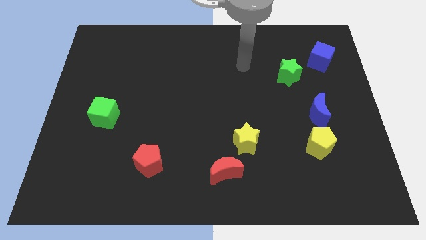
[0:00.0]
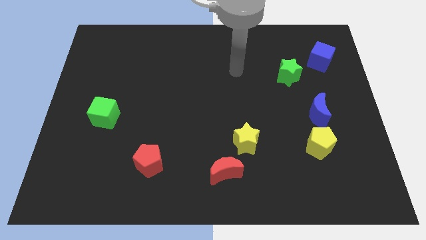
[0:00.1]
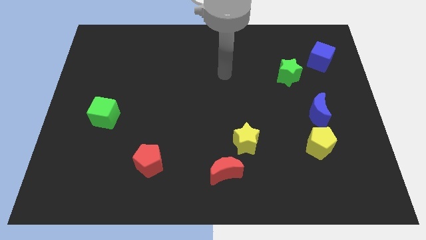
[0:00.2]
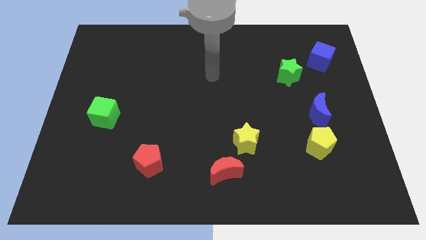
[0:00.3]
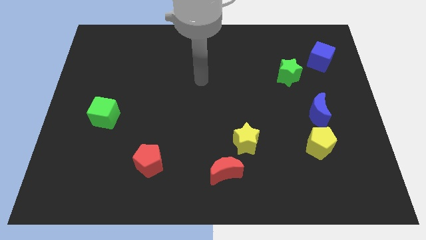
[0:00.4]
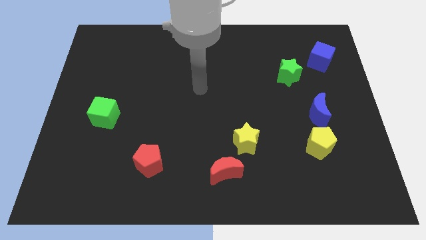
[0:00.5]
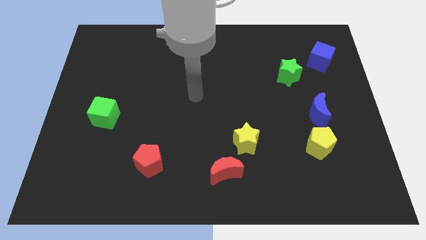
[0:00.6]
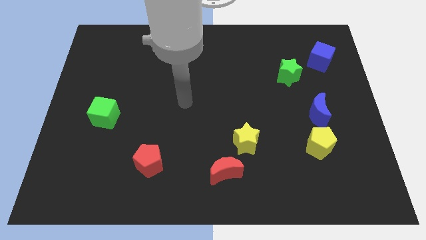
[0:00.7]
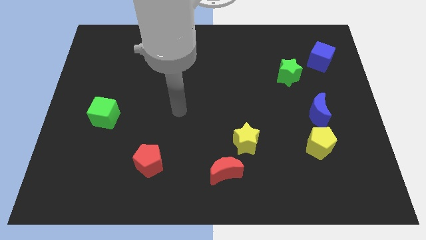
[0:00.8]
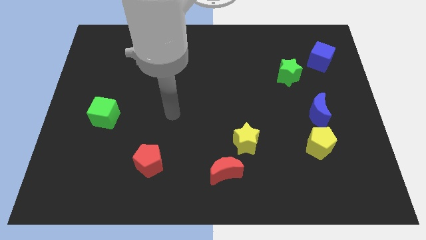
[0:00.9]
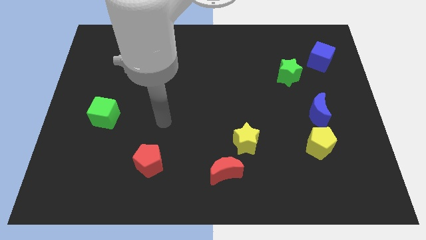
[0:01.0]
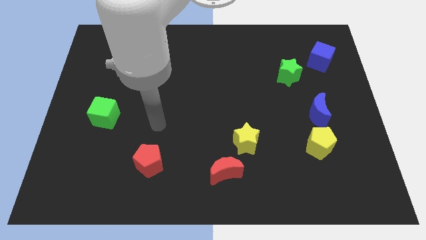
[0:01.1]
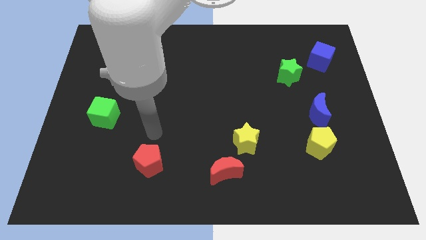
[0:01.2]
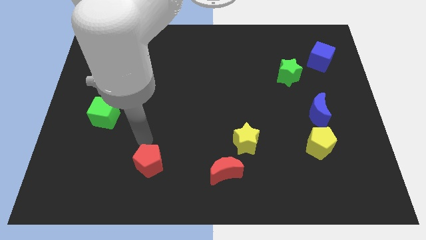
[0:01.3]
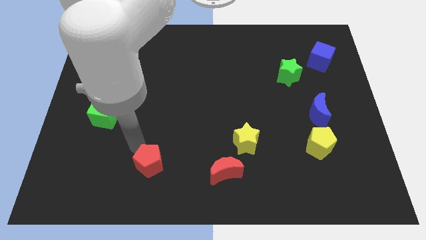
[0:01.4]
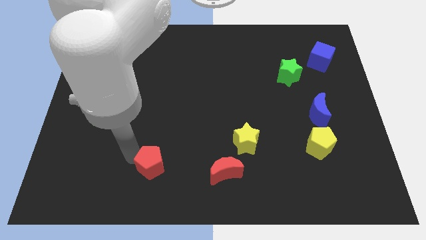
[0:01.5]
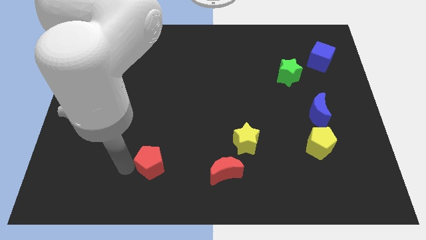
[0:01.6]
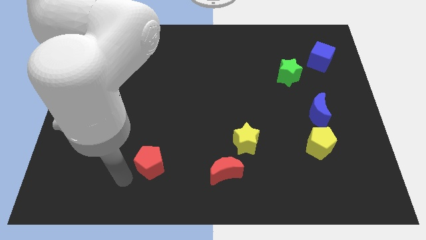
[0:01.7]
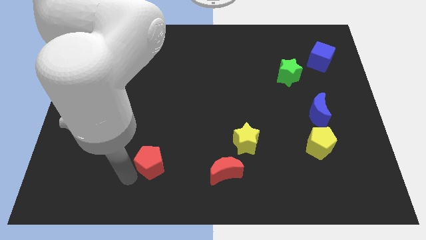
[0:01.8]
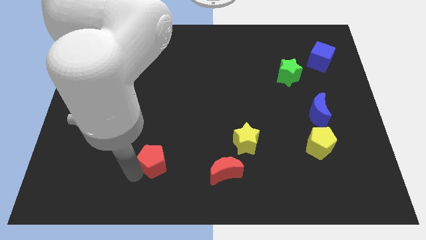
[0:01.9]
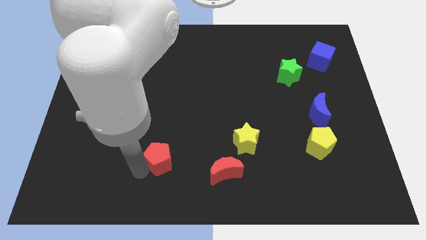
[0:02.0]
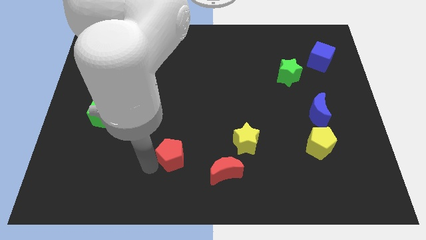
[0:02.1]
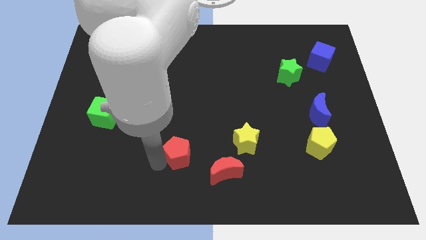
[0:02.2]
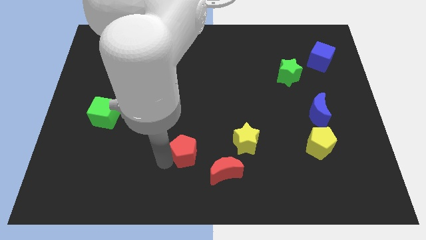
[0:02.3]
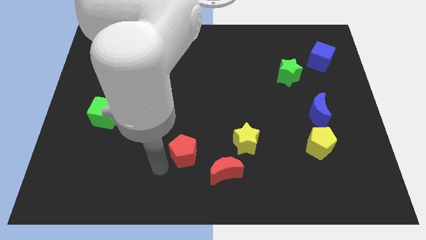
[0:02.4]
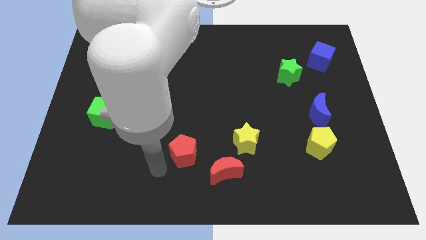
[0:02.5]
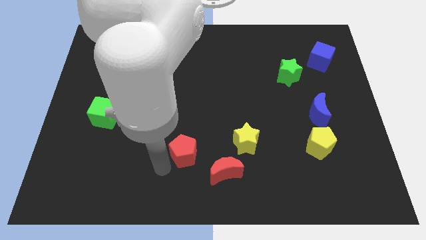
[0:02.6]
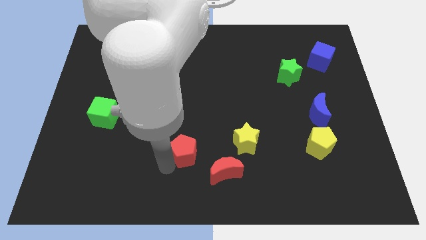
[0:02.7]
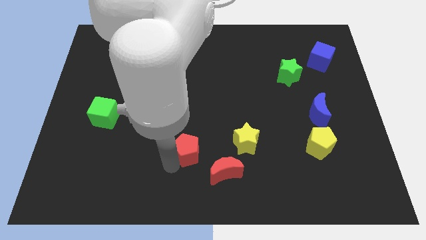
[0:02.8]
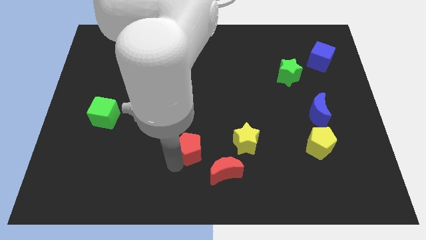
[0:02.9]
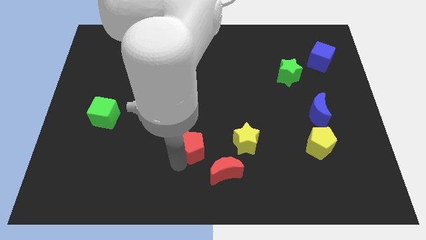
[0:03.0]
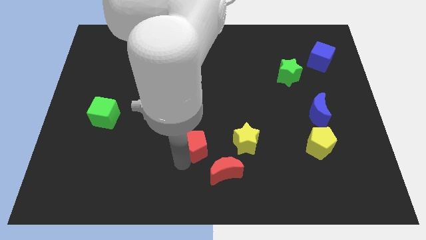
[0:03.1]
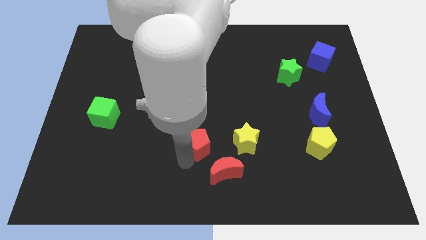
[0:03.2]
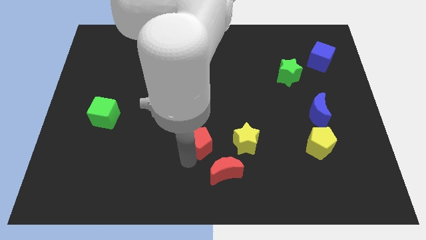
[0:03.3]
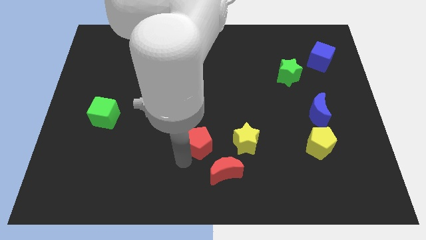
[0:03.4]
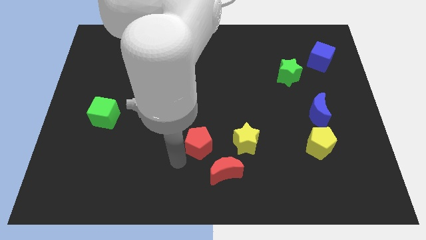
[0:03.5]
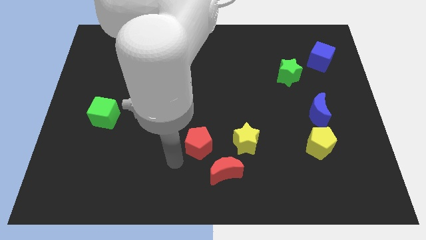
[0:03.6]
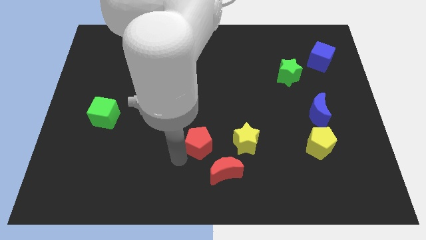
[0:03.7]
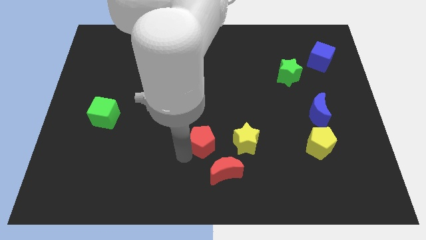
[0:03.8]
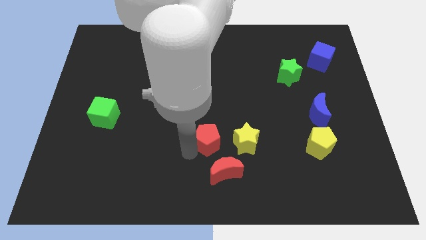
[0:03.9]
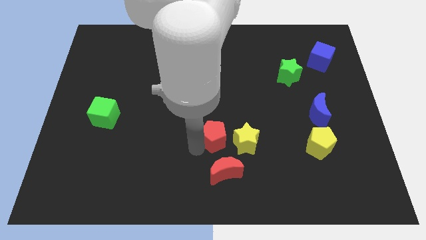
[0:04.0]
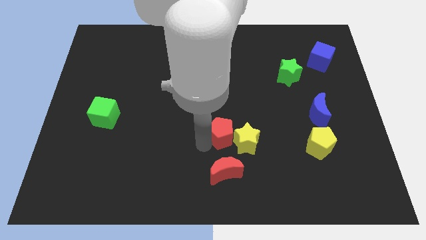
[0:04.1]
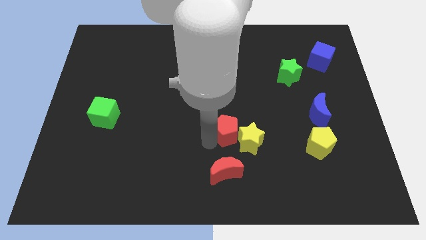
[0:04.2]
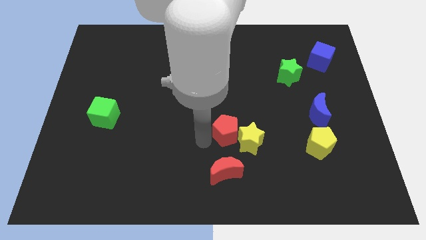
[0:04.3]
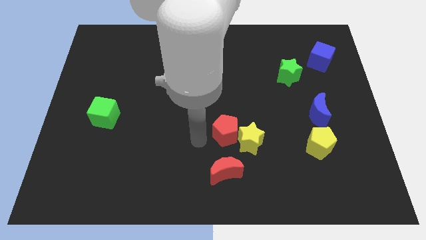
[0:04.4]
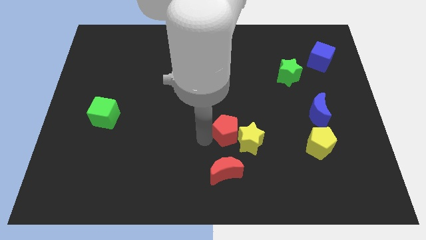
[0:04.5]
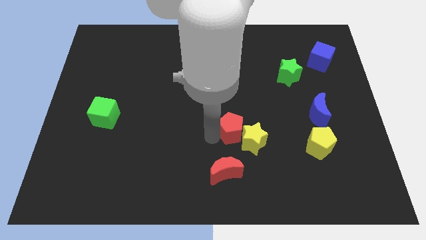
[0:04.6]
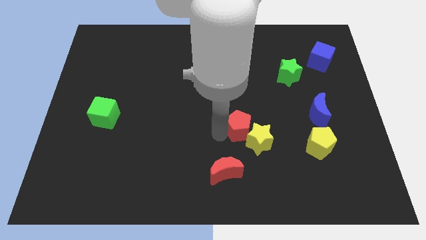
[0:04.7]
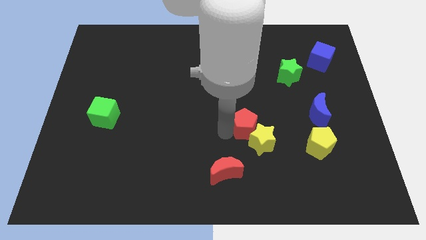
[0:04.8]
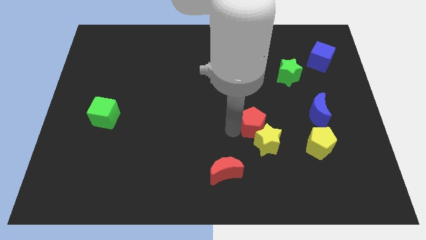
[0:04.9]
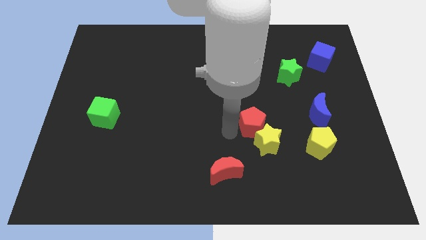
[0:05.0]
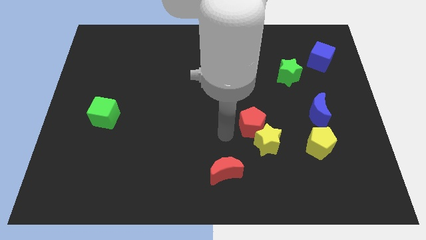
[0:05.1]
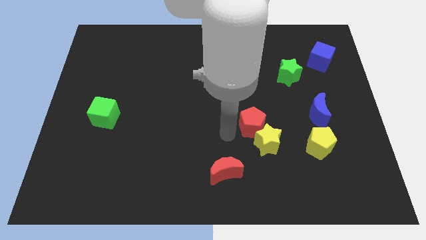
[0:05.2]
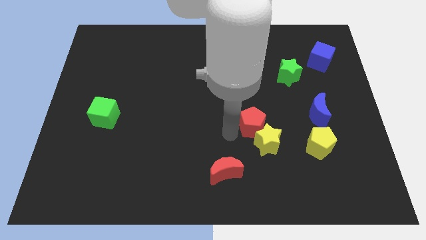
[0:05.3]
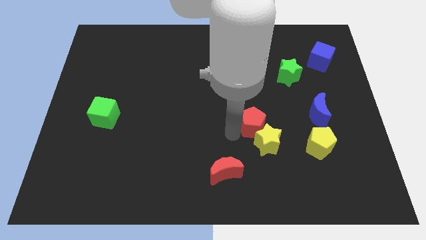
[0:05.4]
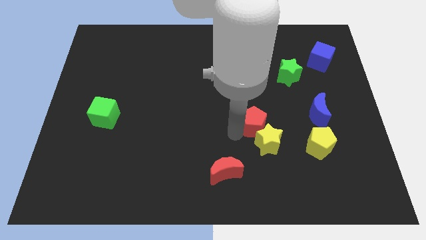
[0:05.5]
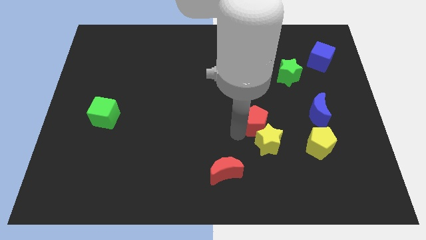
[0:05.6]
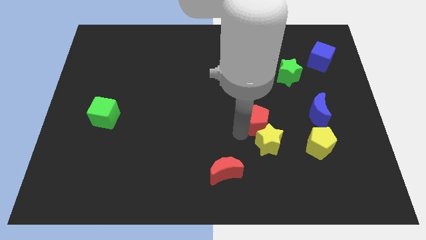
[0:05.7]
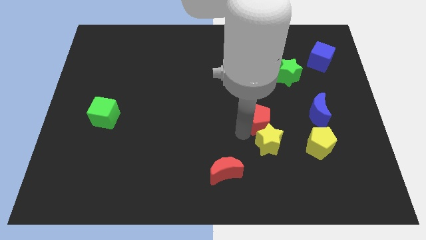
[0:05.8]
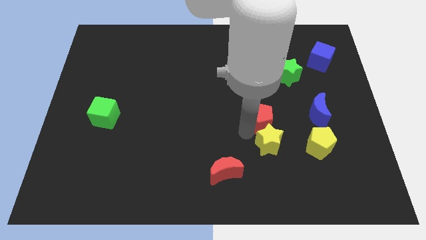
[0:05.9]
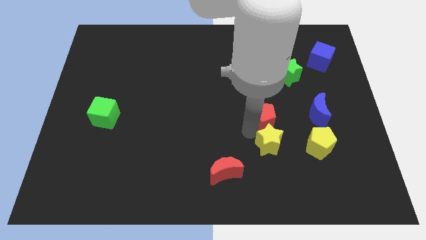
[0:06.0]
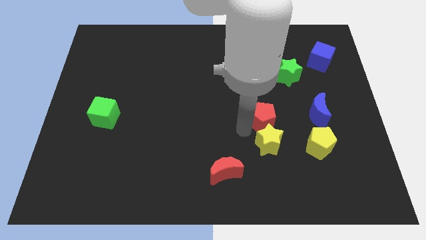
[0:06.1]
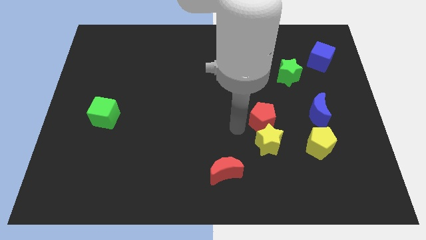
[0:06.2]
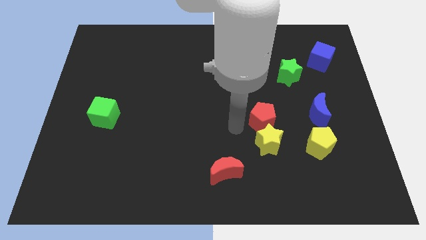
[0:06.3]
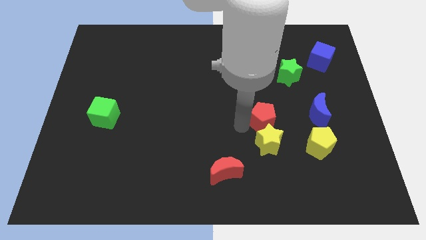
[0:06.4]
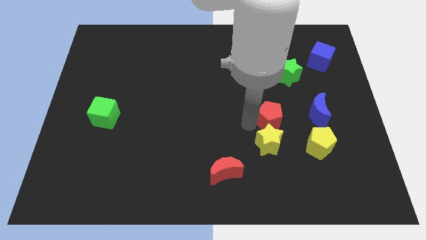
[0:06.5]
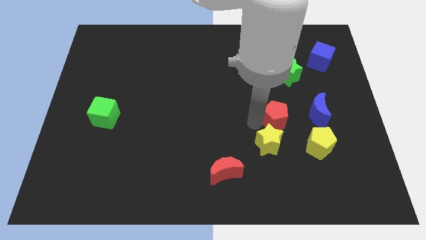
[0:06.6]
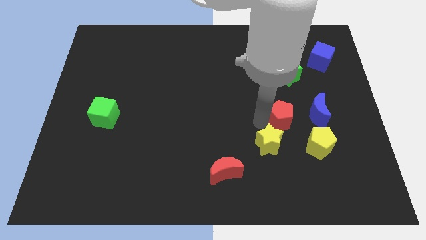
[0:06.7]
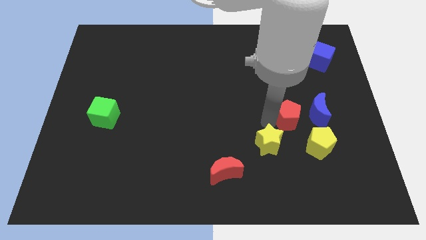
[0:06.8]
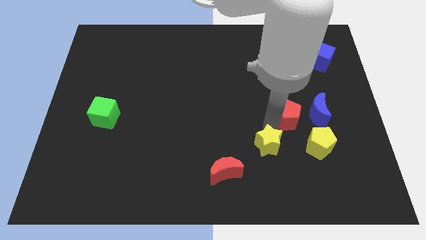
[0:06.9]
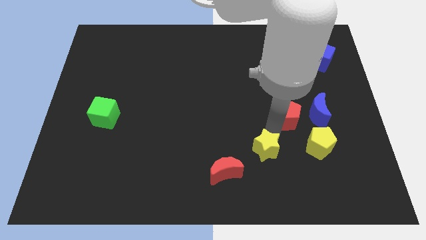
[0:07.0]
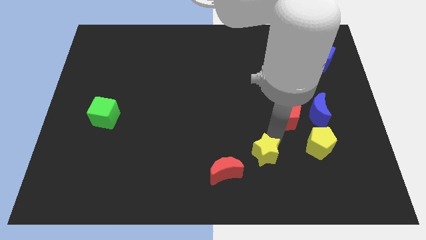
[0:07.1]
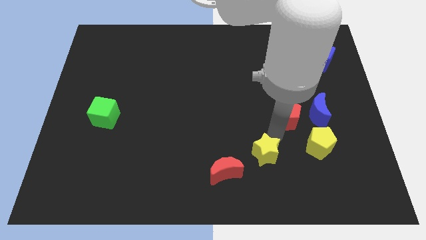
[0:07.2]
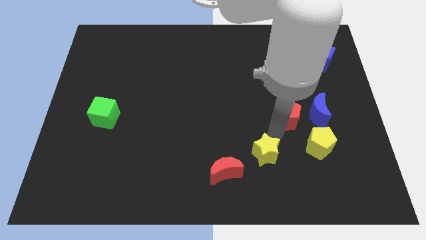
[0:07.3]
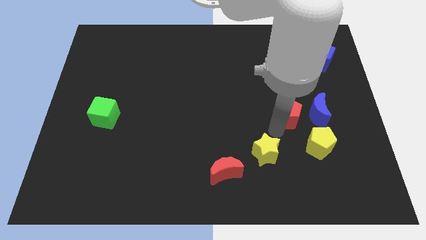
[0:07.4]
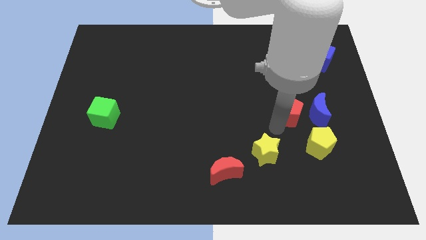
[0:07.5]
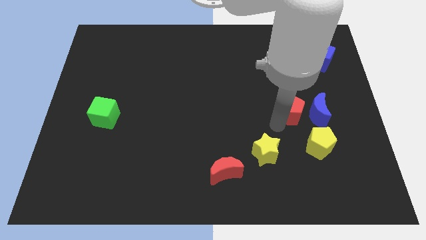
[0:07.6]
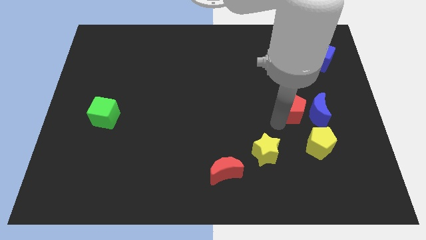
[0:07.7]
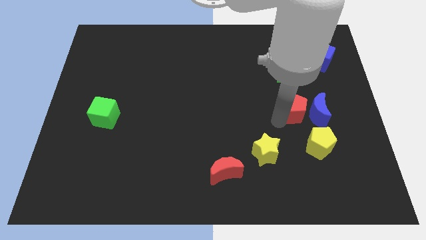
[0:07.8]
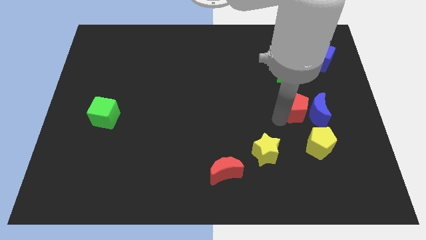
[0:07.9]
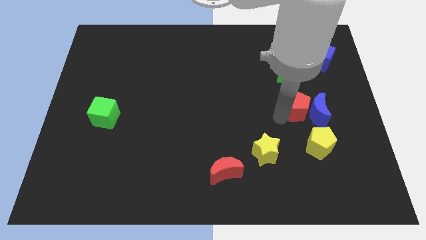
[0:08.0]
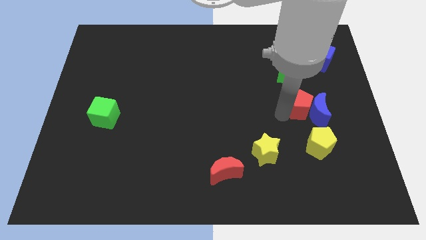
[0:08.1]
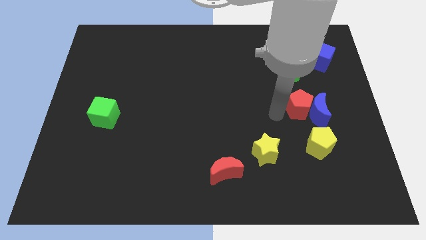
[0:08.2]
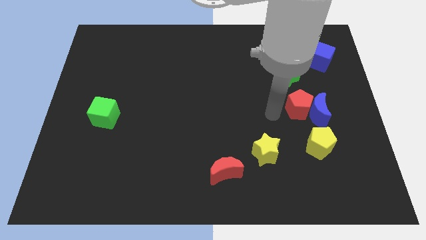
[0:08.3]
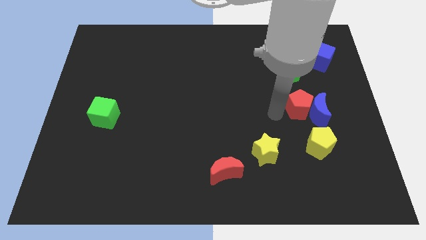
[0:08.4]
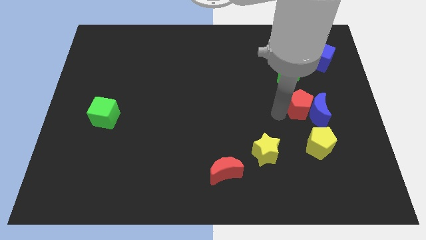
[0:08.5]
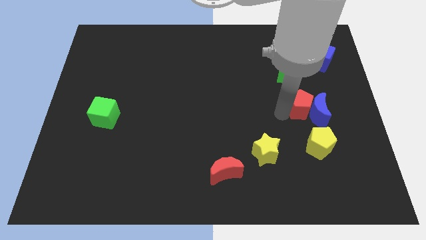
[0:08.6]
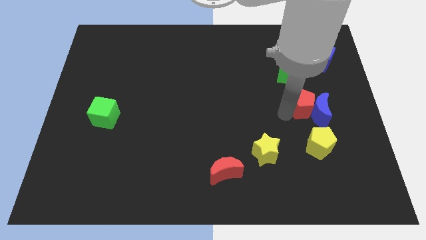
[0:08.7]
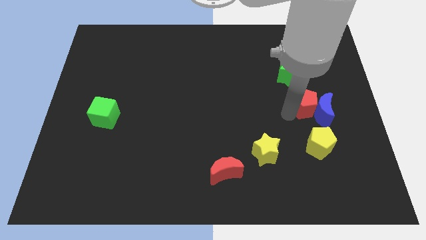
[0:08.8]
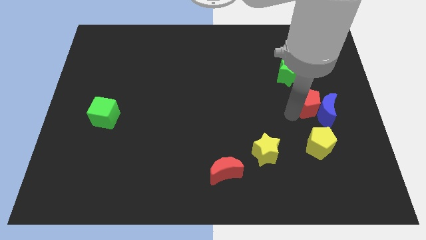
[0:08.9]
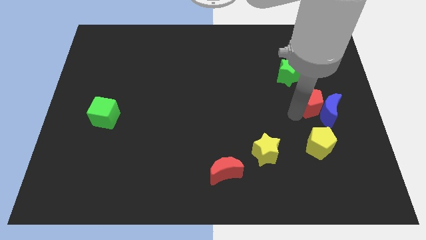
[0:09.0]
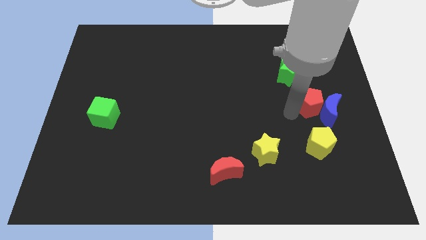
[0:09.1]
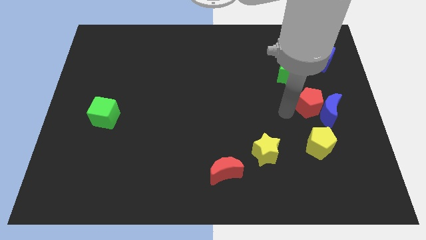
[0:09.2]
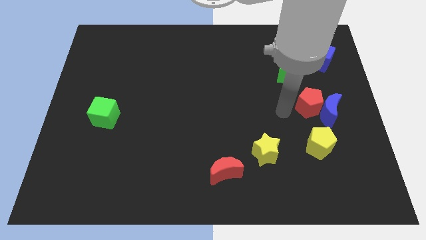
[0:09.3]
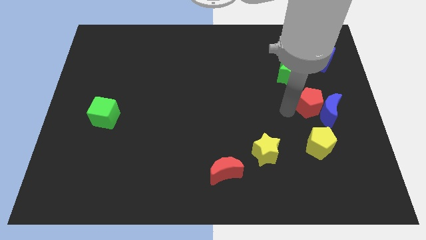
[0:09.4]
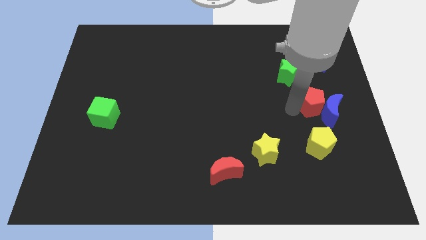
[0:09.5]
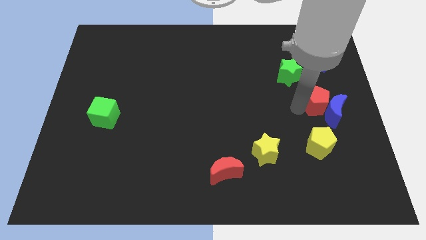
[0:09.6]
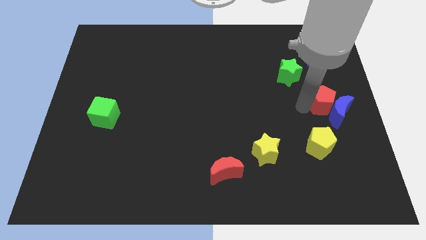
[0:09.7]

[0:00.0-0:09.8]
move the red pentagon to the right side
